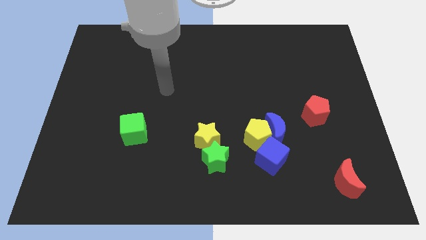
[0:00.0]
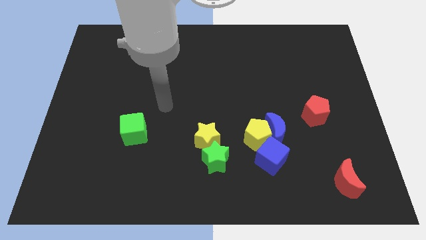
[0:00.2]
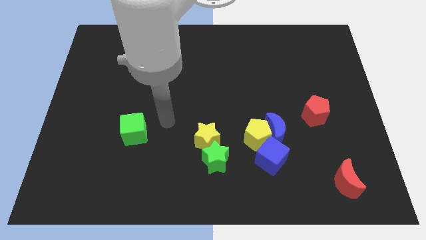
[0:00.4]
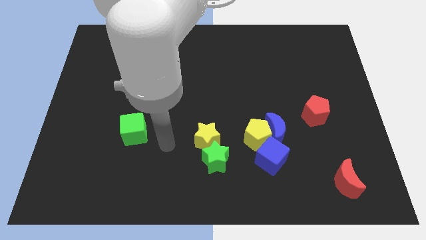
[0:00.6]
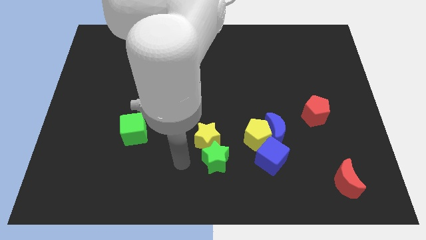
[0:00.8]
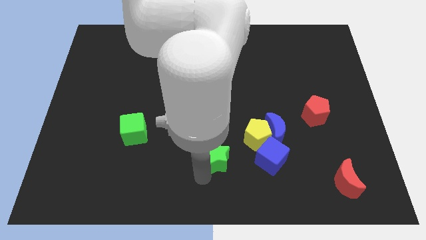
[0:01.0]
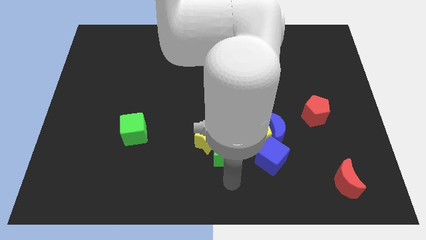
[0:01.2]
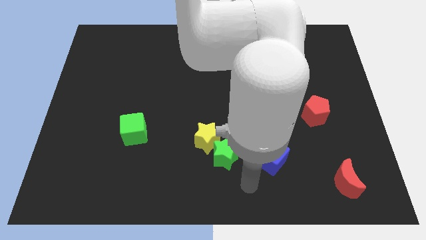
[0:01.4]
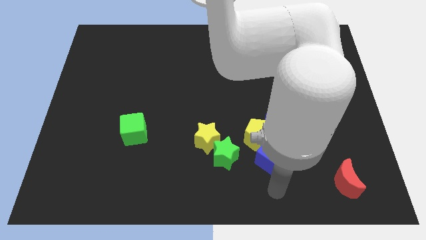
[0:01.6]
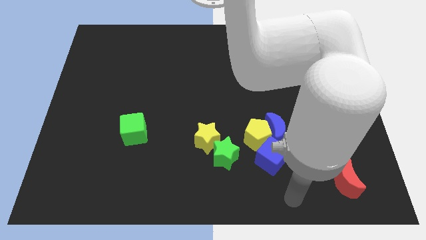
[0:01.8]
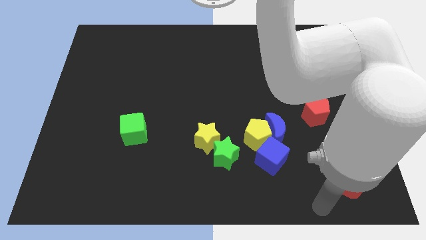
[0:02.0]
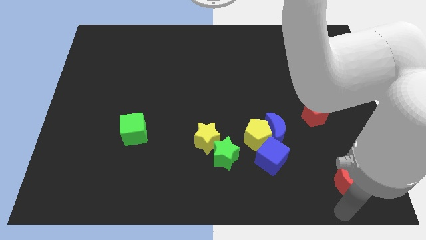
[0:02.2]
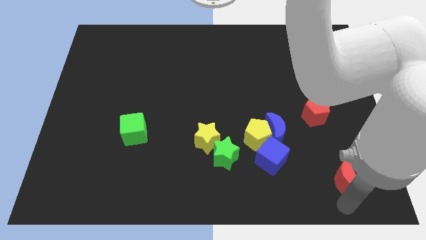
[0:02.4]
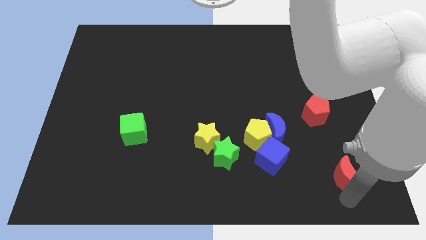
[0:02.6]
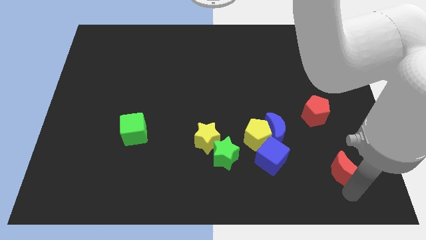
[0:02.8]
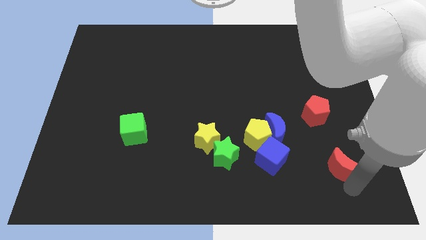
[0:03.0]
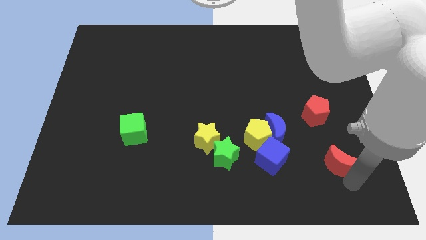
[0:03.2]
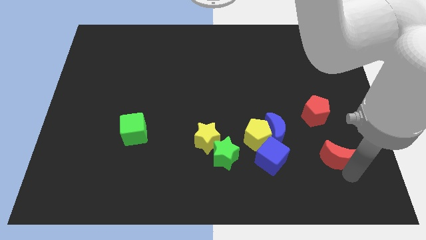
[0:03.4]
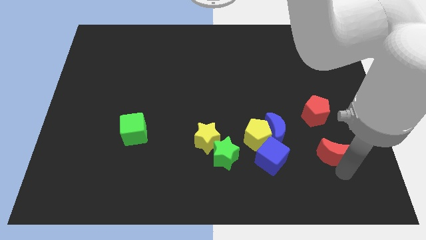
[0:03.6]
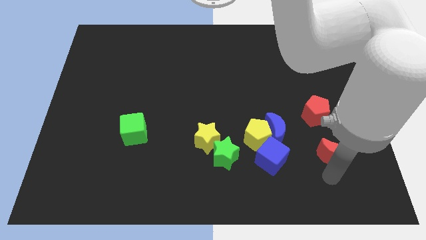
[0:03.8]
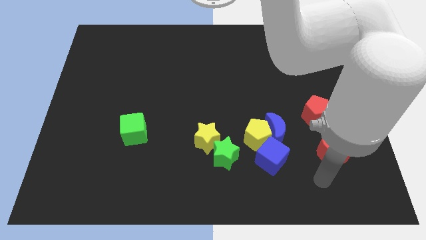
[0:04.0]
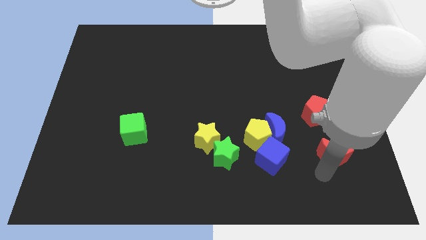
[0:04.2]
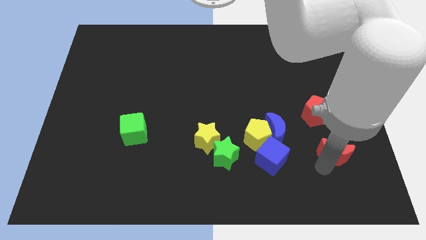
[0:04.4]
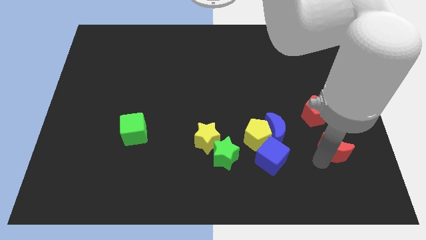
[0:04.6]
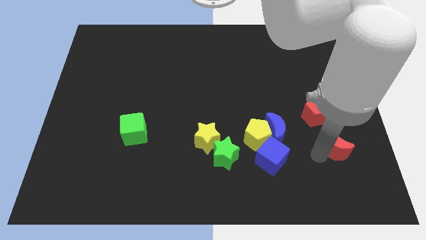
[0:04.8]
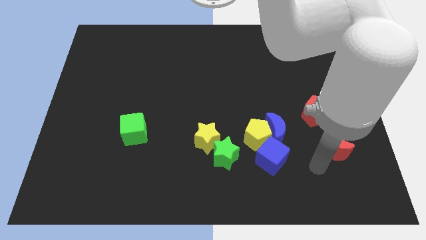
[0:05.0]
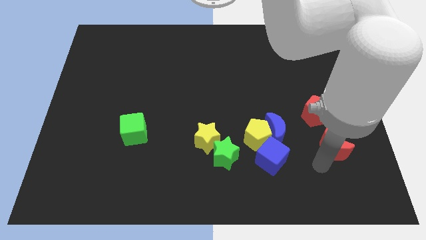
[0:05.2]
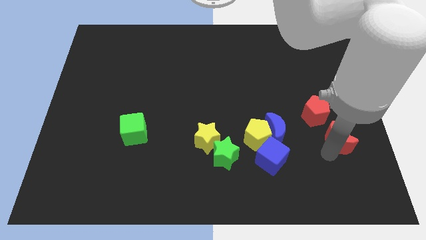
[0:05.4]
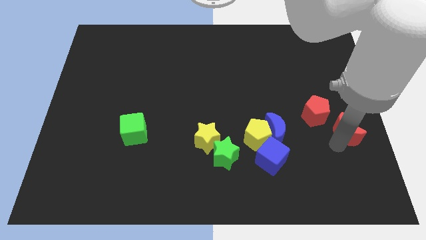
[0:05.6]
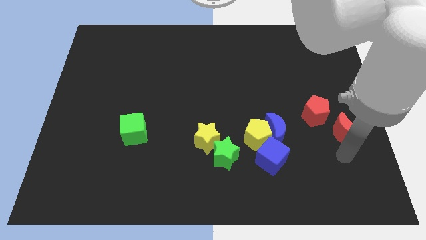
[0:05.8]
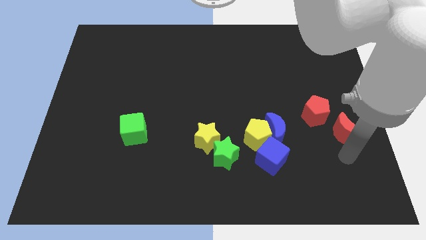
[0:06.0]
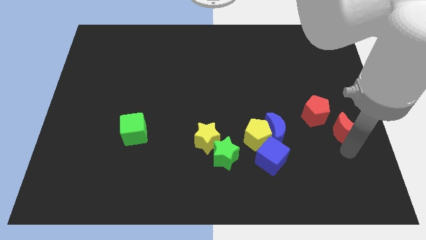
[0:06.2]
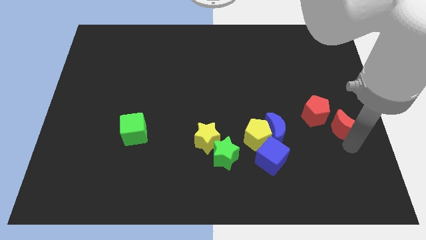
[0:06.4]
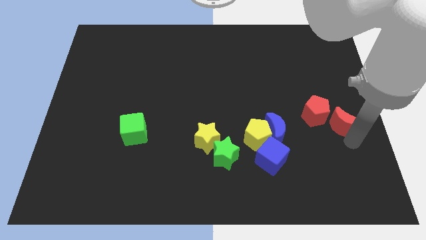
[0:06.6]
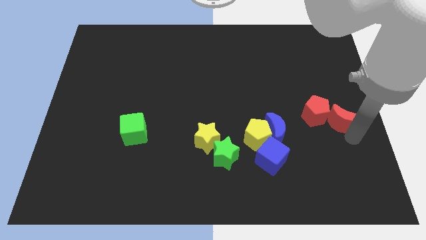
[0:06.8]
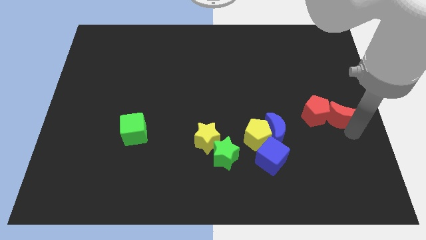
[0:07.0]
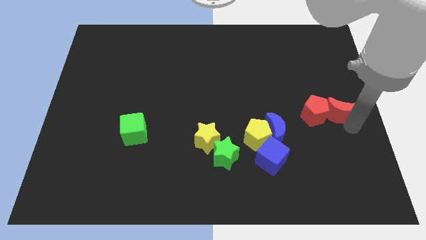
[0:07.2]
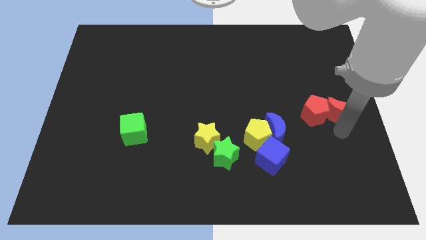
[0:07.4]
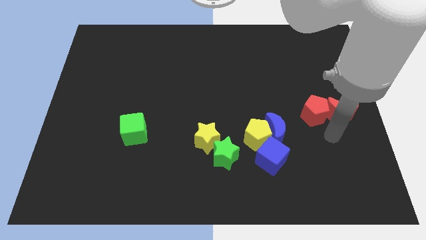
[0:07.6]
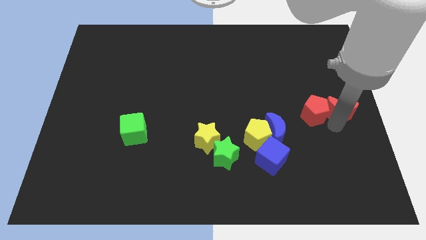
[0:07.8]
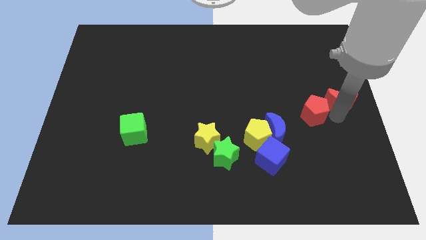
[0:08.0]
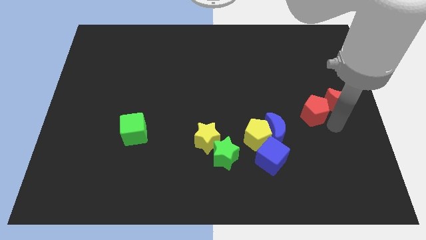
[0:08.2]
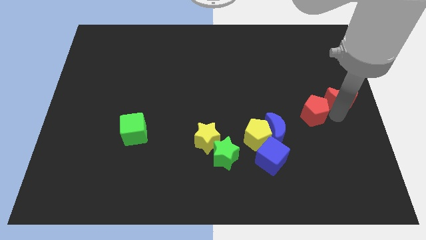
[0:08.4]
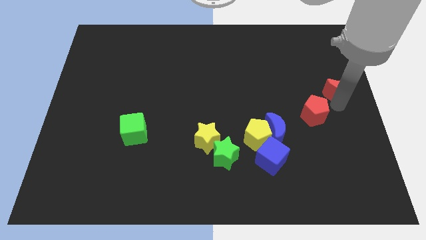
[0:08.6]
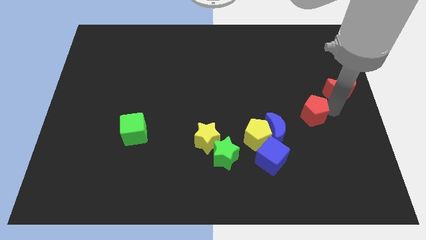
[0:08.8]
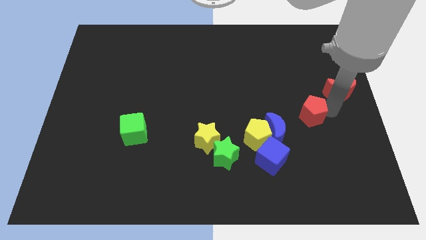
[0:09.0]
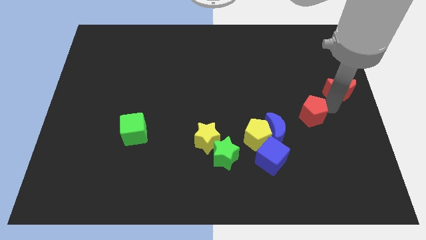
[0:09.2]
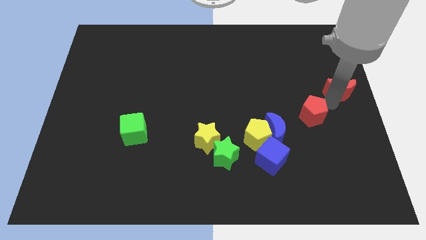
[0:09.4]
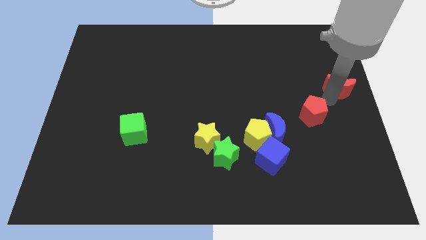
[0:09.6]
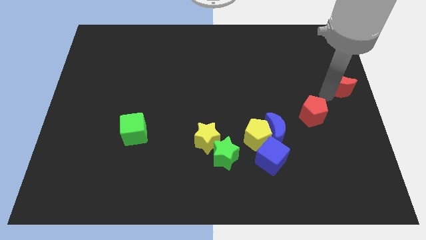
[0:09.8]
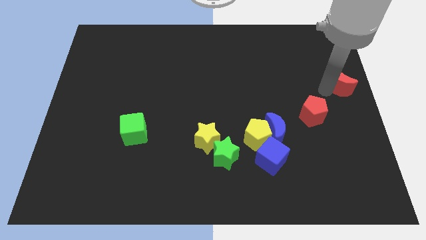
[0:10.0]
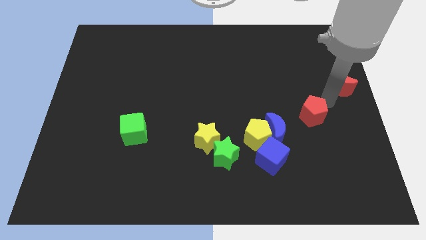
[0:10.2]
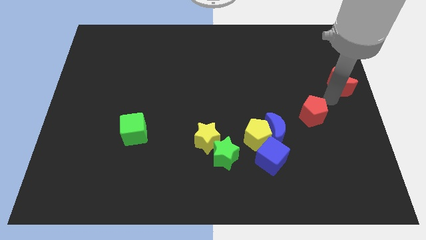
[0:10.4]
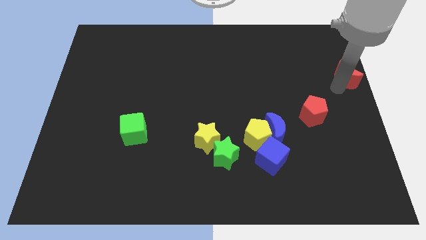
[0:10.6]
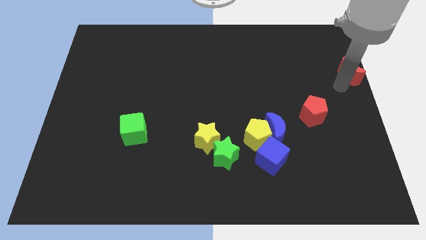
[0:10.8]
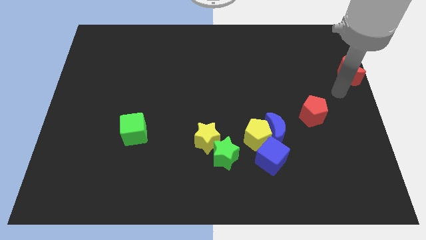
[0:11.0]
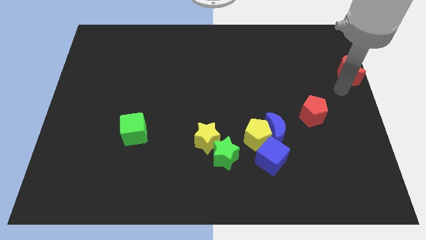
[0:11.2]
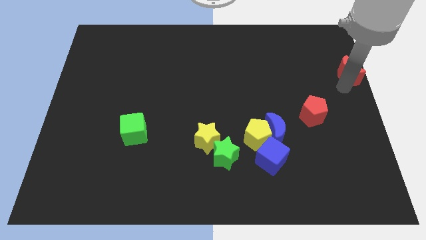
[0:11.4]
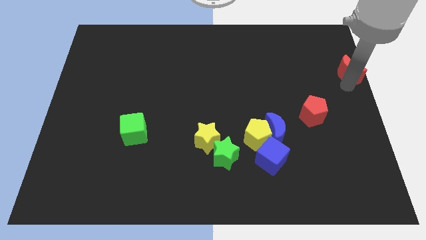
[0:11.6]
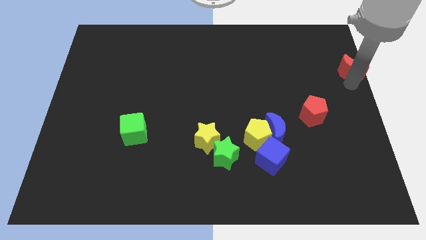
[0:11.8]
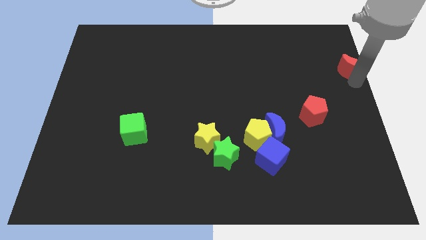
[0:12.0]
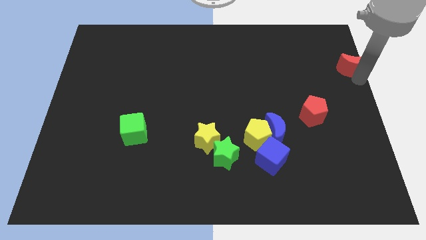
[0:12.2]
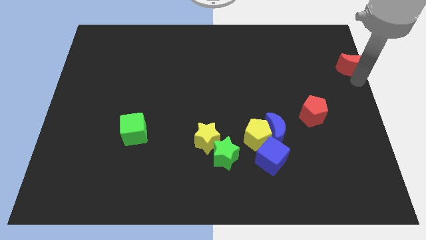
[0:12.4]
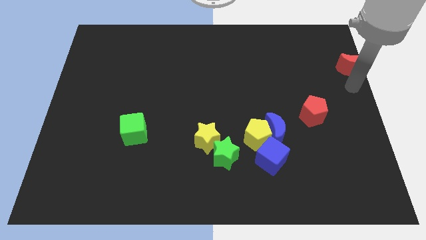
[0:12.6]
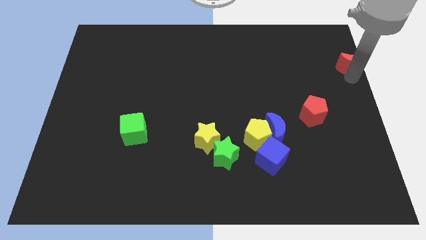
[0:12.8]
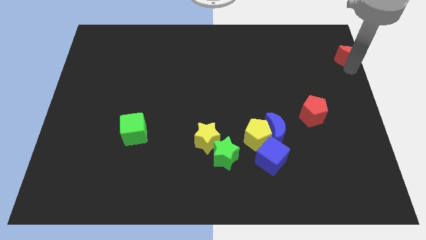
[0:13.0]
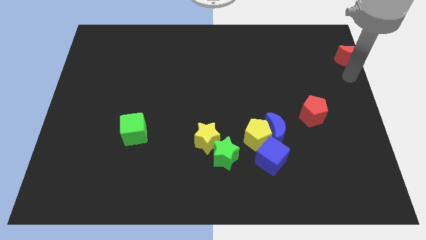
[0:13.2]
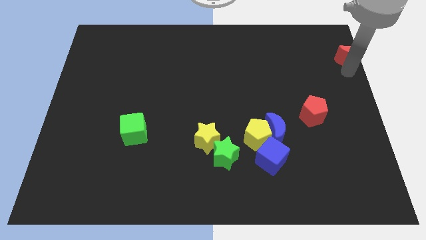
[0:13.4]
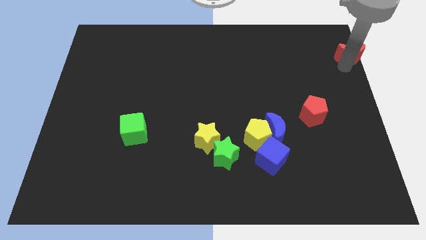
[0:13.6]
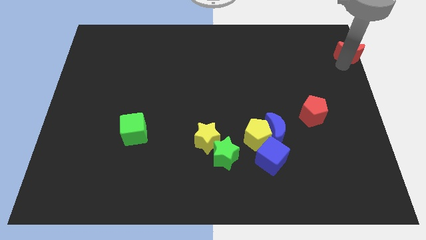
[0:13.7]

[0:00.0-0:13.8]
push the red moon to the upper right corner
